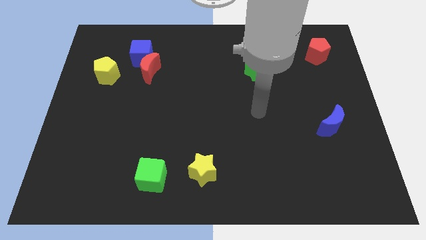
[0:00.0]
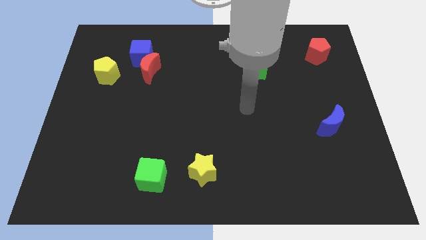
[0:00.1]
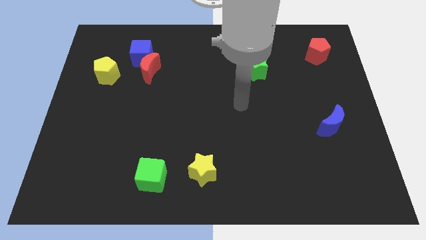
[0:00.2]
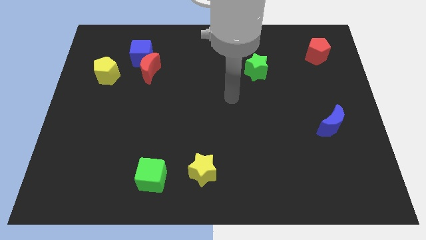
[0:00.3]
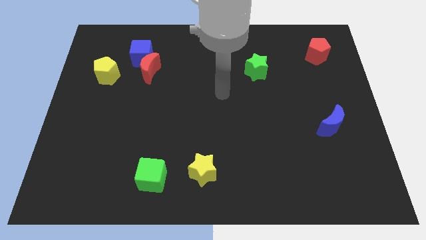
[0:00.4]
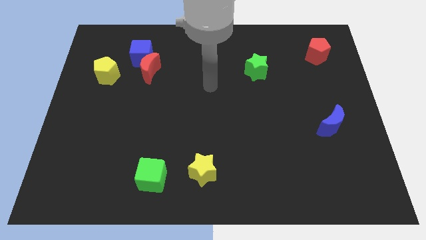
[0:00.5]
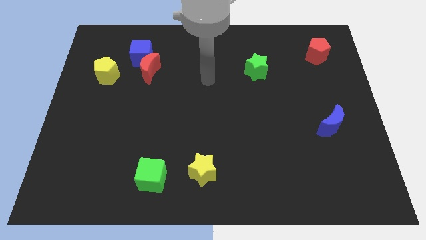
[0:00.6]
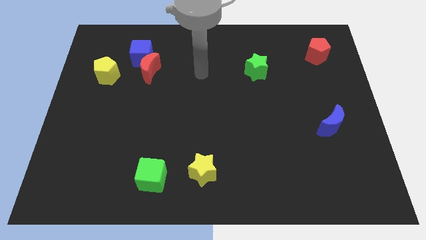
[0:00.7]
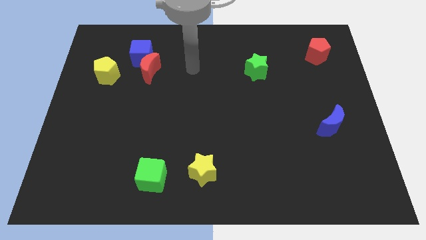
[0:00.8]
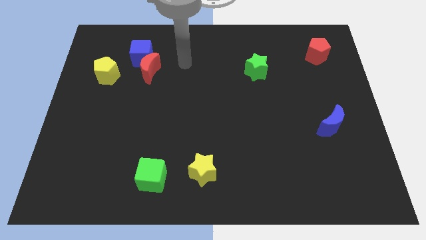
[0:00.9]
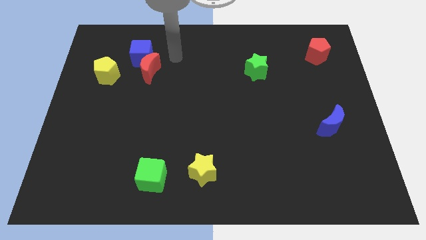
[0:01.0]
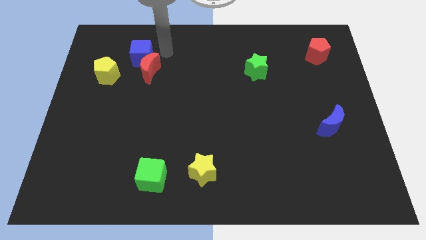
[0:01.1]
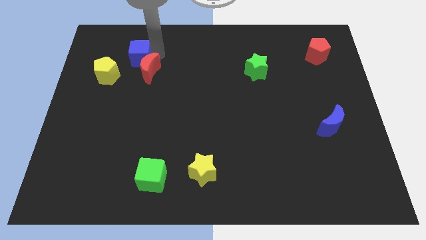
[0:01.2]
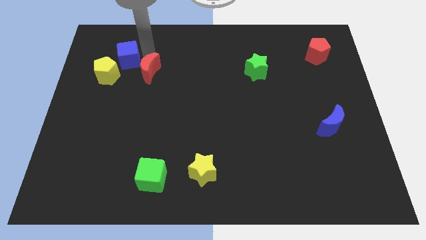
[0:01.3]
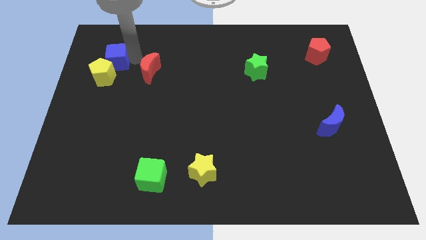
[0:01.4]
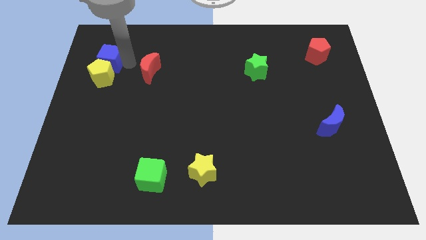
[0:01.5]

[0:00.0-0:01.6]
move the red moon away from the blue cube

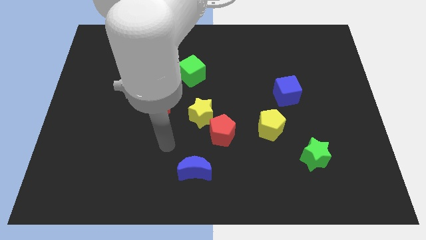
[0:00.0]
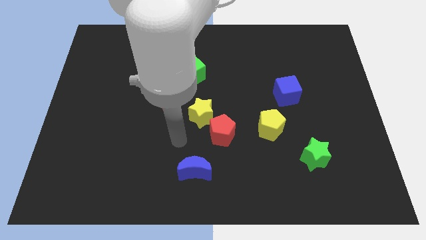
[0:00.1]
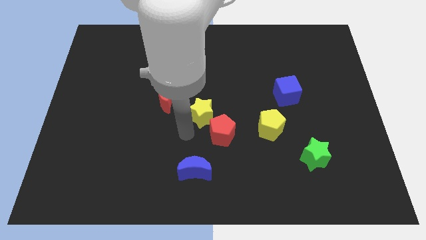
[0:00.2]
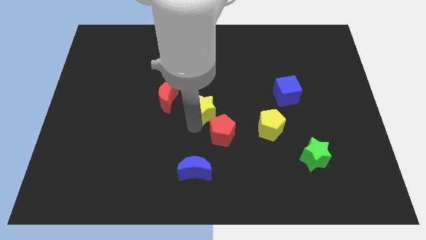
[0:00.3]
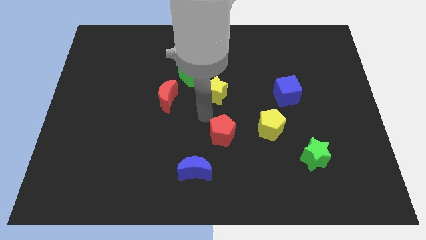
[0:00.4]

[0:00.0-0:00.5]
move the red pentagon away from the yellow star

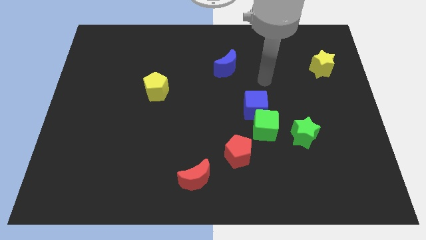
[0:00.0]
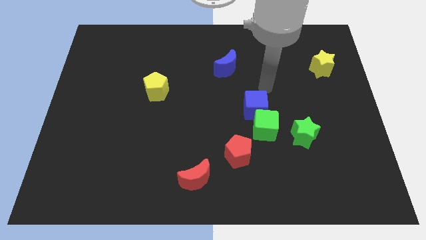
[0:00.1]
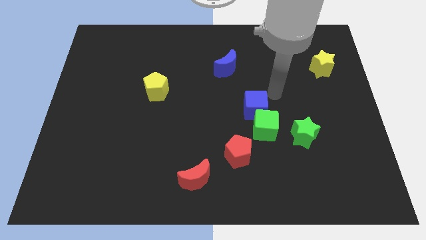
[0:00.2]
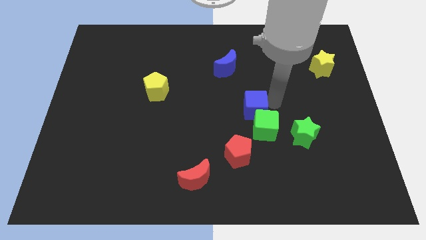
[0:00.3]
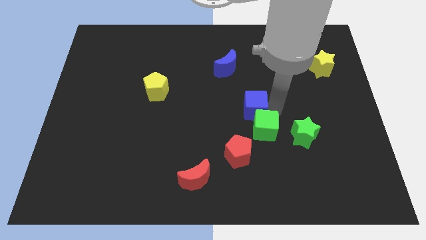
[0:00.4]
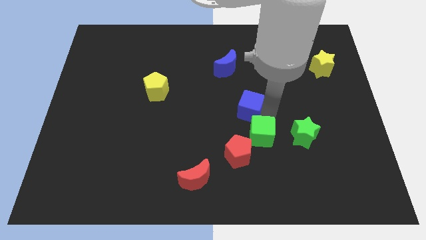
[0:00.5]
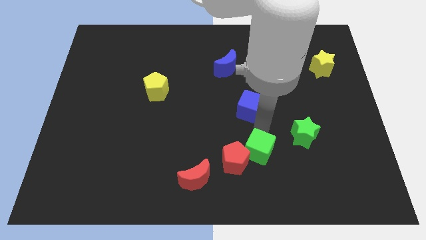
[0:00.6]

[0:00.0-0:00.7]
pull the blue cube apart from the green cube

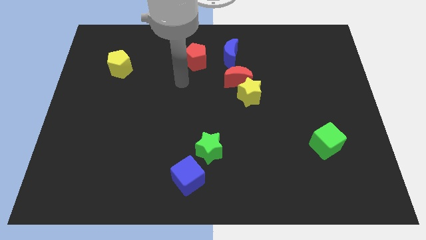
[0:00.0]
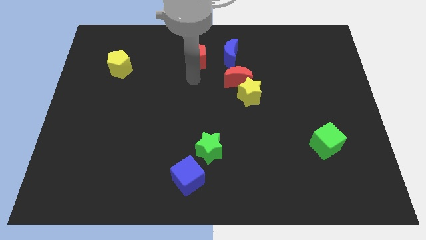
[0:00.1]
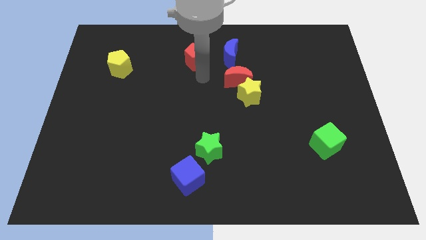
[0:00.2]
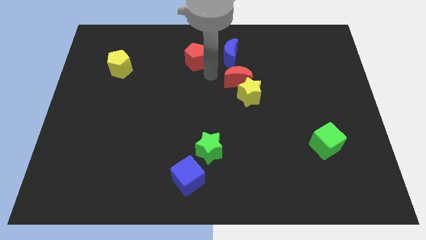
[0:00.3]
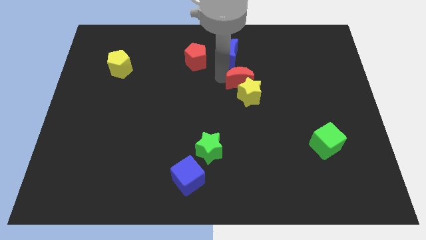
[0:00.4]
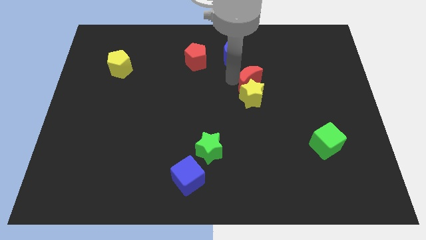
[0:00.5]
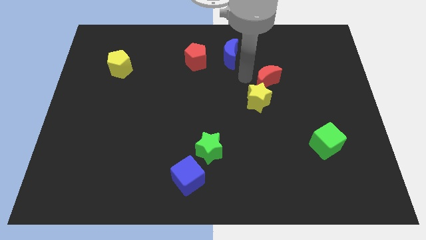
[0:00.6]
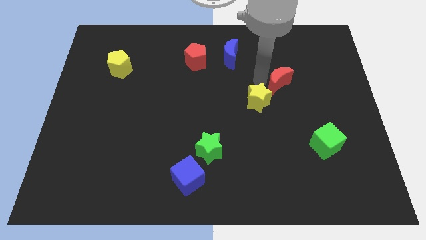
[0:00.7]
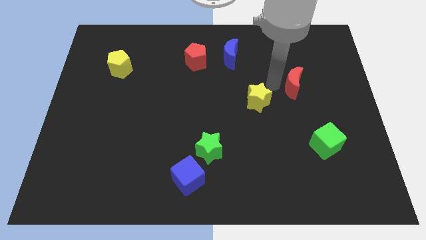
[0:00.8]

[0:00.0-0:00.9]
pull the yellow star apart from the red moon

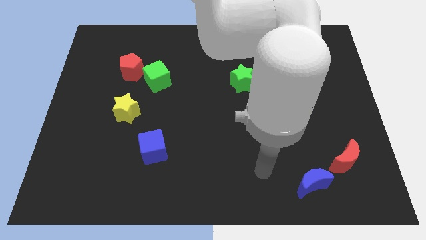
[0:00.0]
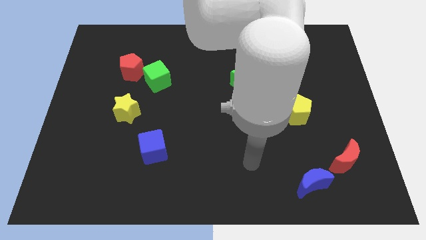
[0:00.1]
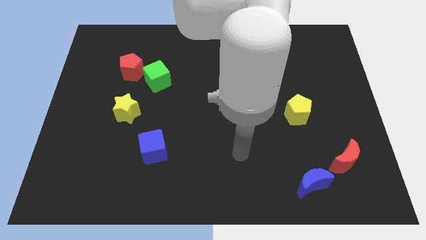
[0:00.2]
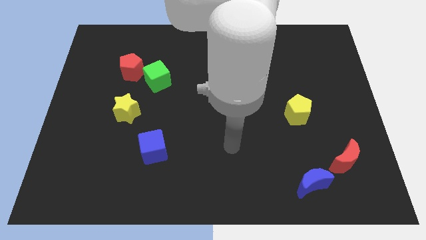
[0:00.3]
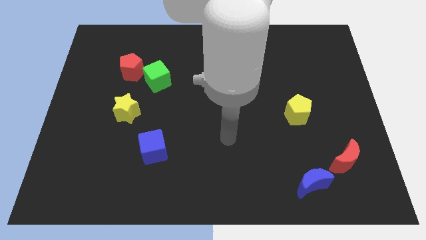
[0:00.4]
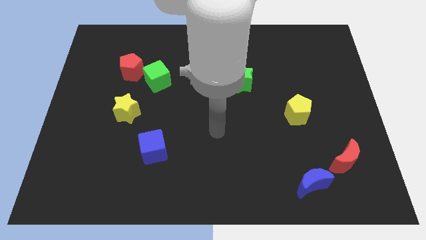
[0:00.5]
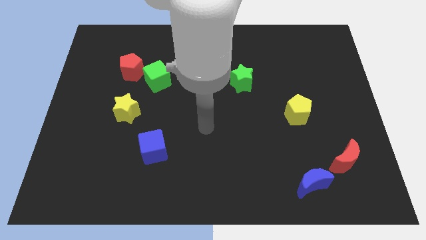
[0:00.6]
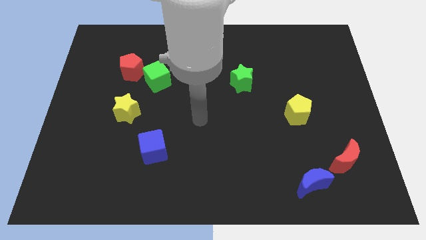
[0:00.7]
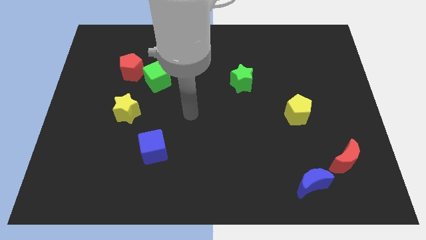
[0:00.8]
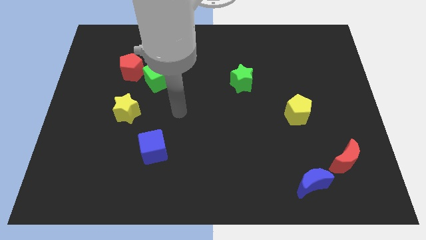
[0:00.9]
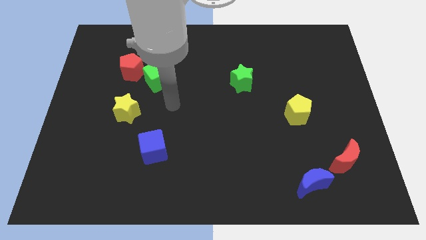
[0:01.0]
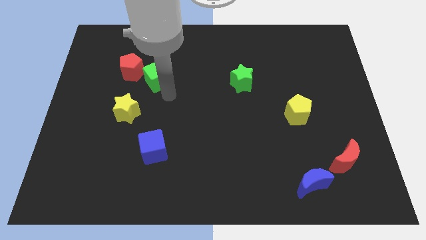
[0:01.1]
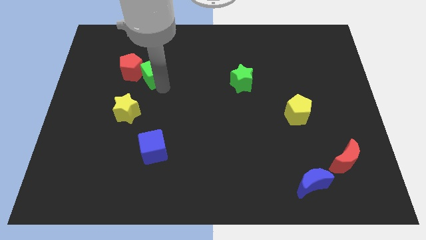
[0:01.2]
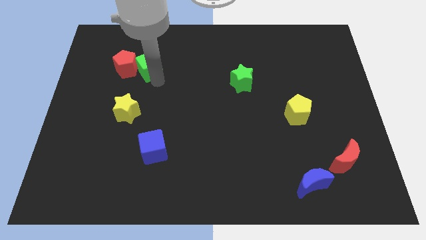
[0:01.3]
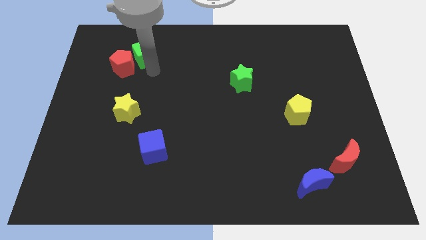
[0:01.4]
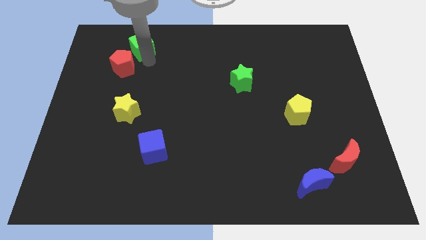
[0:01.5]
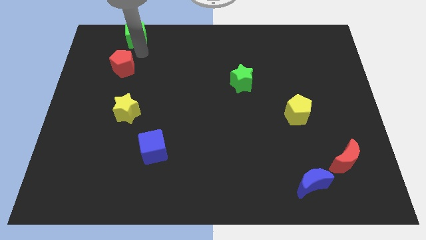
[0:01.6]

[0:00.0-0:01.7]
move the red pentagon away from the green cube

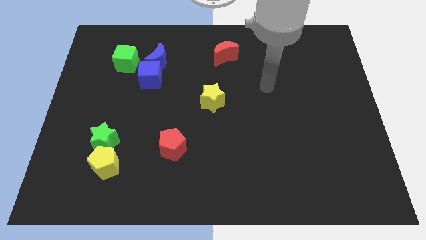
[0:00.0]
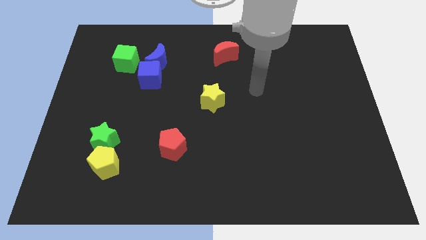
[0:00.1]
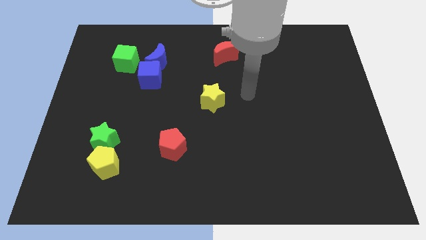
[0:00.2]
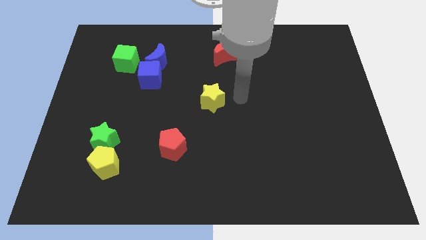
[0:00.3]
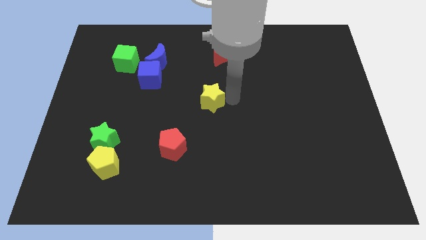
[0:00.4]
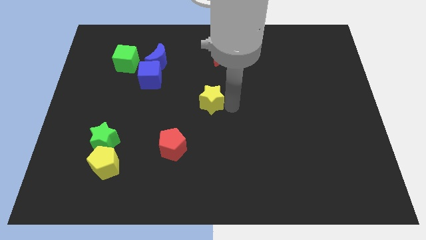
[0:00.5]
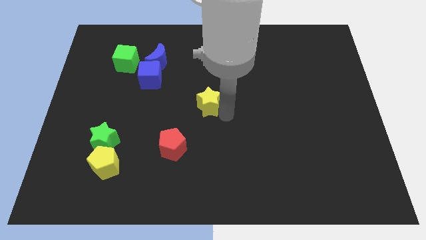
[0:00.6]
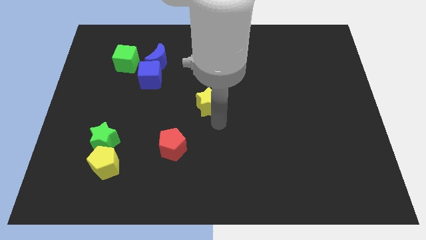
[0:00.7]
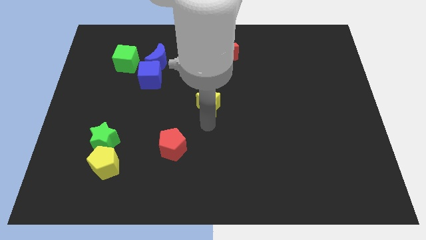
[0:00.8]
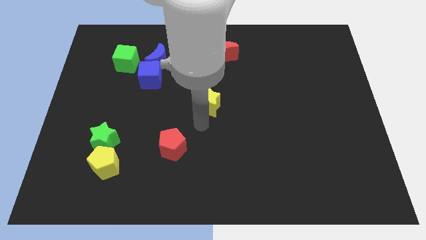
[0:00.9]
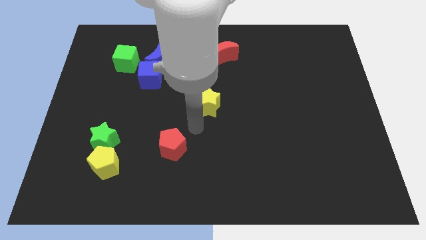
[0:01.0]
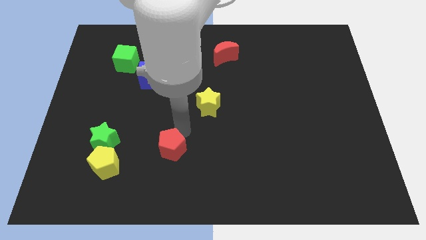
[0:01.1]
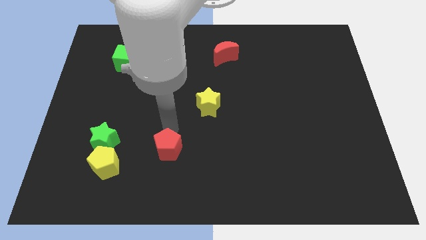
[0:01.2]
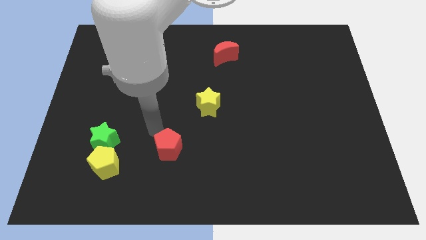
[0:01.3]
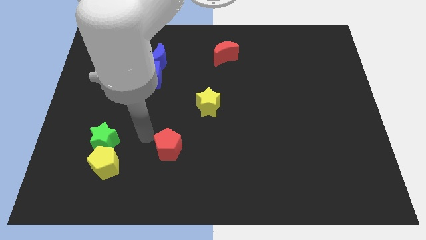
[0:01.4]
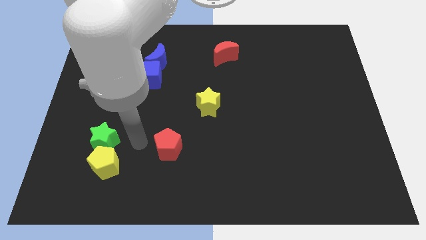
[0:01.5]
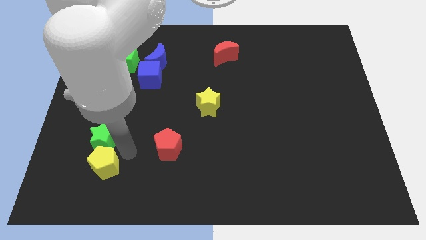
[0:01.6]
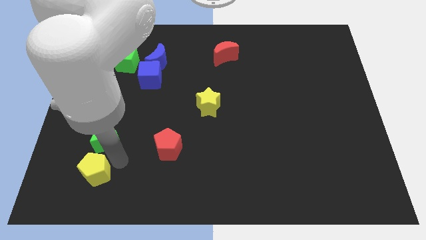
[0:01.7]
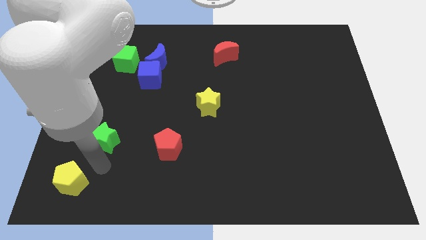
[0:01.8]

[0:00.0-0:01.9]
move the green star away from the yellow pentagon

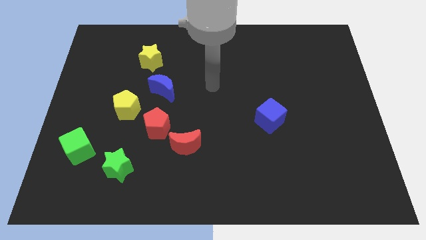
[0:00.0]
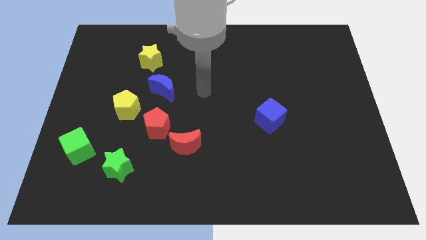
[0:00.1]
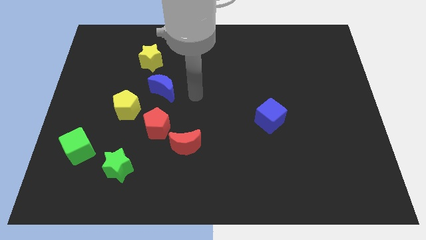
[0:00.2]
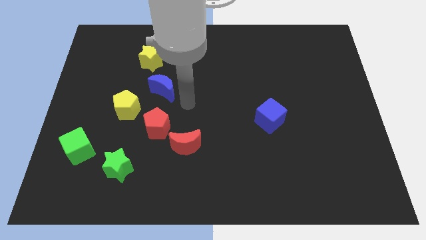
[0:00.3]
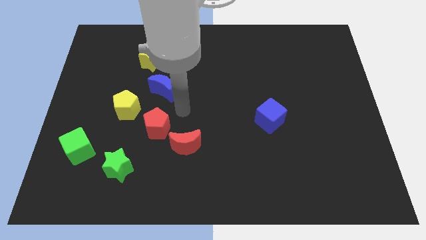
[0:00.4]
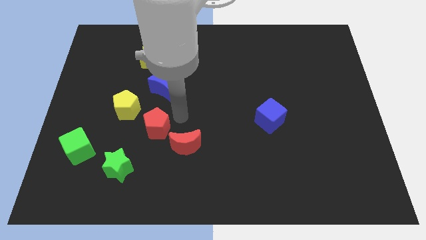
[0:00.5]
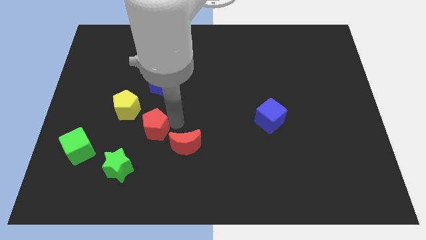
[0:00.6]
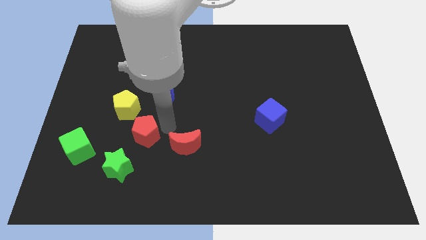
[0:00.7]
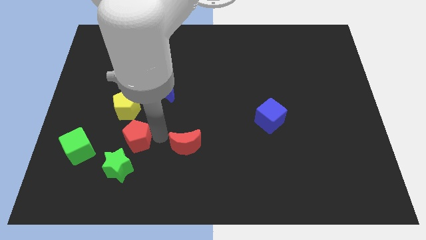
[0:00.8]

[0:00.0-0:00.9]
move the red moon away from the red pentagon

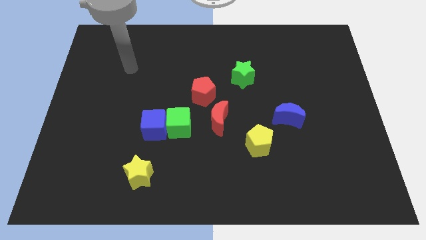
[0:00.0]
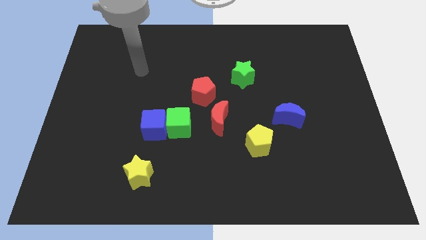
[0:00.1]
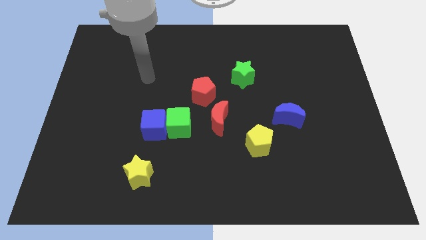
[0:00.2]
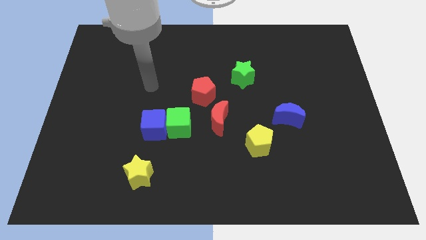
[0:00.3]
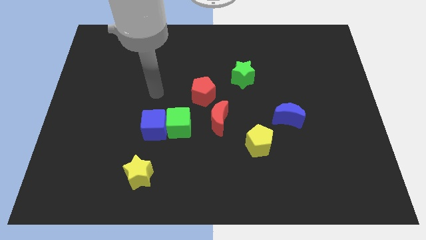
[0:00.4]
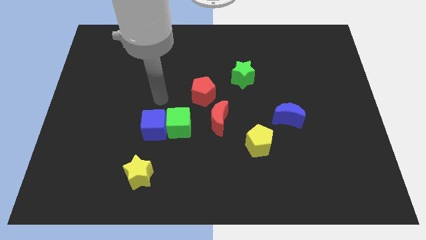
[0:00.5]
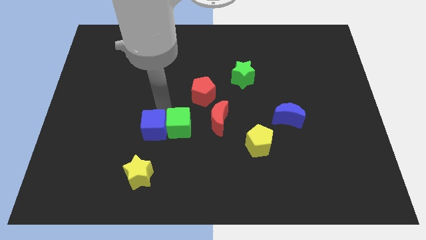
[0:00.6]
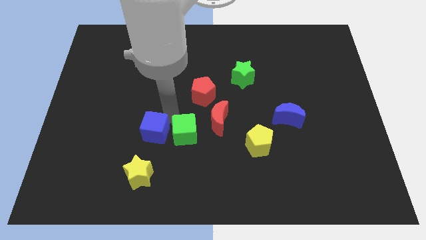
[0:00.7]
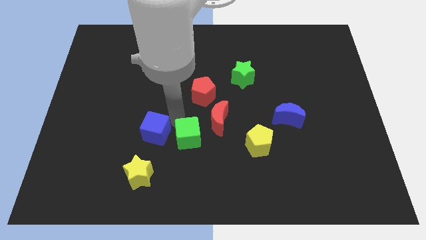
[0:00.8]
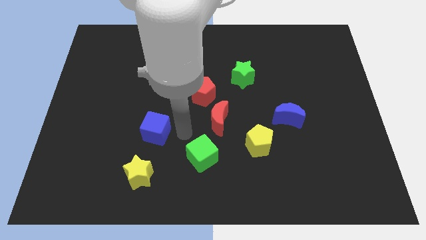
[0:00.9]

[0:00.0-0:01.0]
move the blue cube away from the green cube
